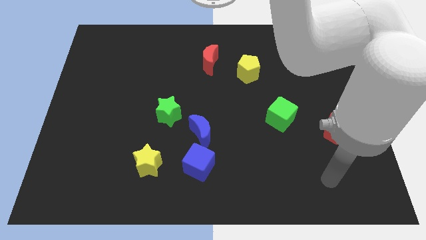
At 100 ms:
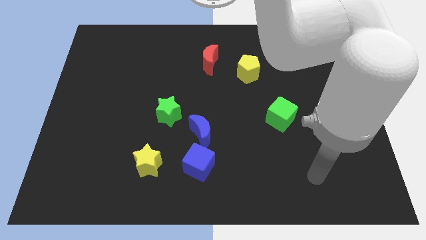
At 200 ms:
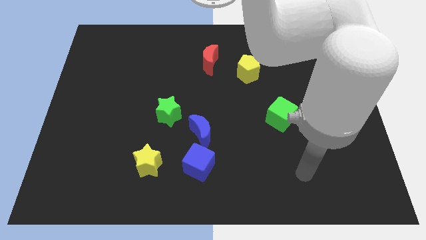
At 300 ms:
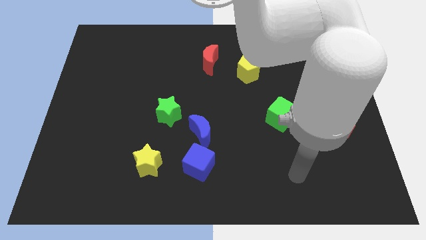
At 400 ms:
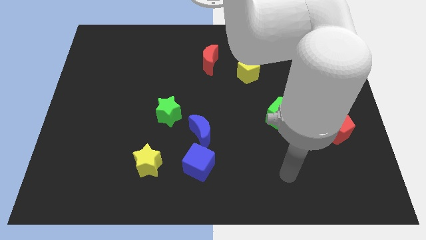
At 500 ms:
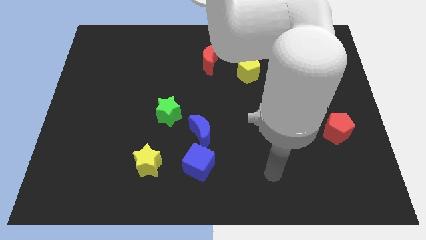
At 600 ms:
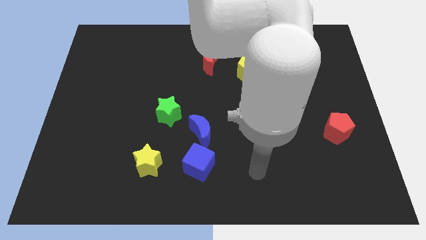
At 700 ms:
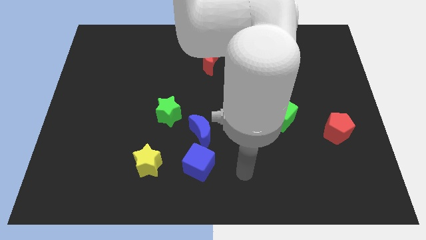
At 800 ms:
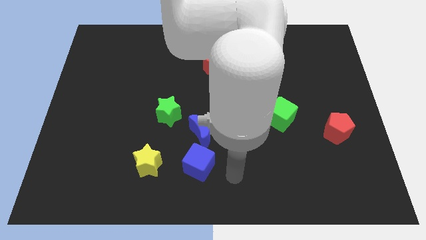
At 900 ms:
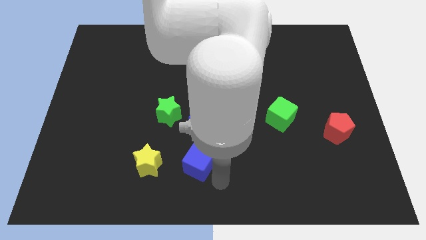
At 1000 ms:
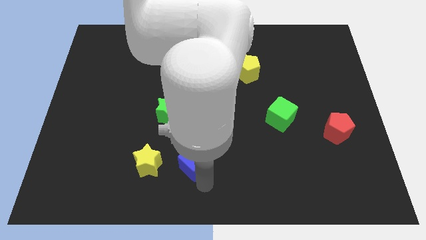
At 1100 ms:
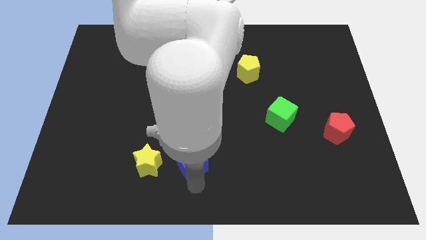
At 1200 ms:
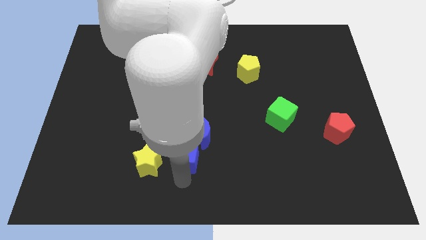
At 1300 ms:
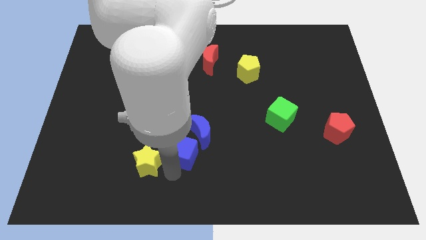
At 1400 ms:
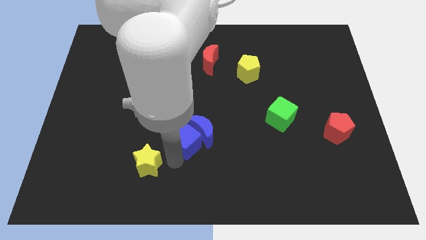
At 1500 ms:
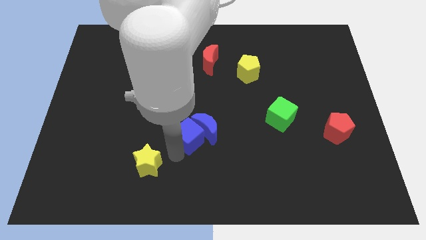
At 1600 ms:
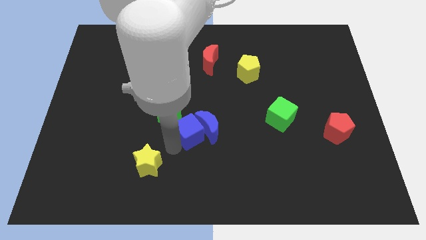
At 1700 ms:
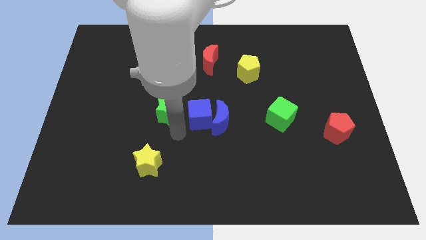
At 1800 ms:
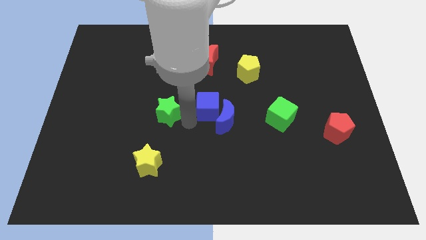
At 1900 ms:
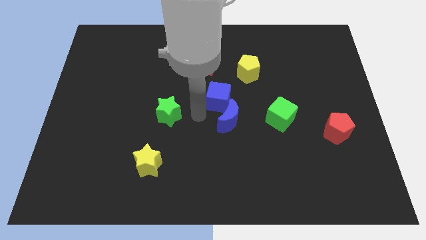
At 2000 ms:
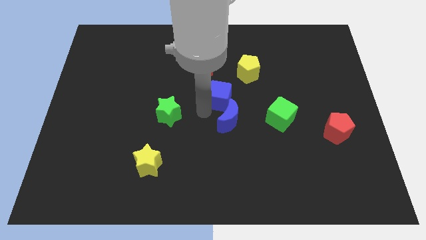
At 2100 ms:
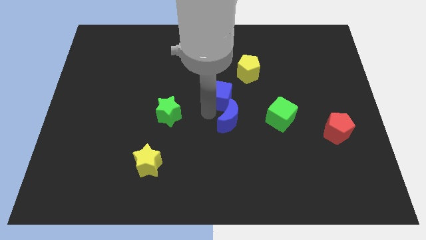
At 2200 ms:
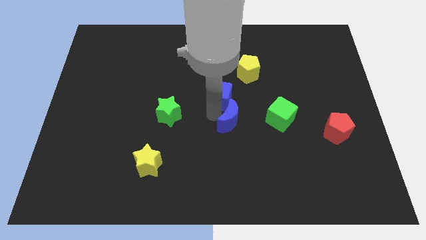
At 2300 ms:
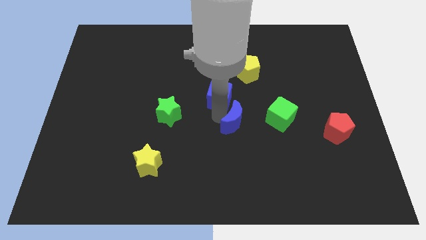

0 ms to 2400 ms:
move the blue moon away from the blue cube and green star

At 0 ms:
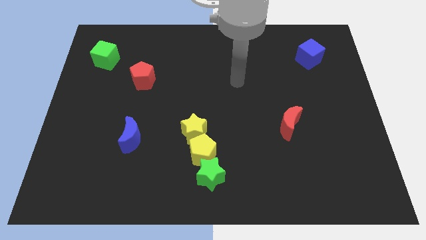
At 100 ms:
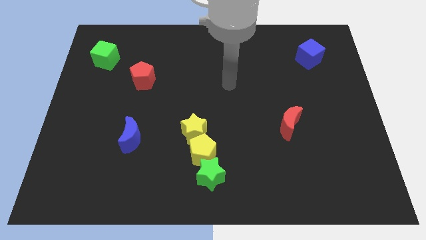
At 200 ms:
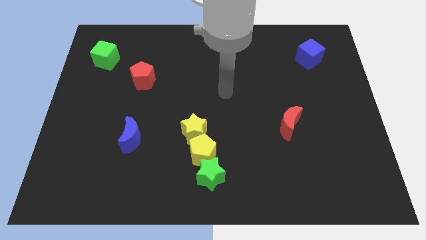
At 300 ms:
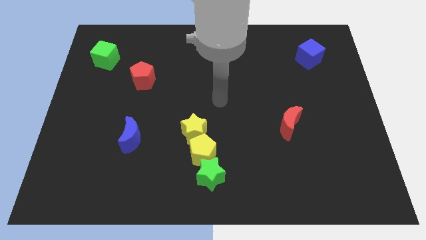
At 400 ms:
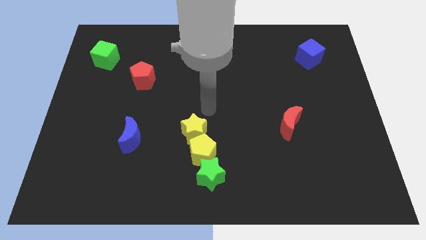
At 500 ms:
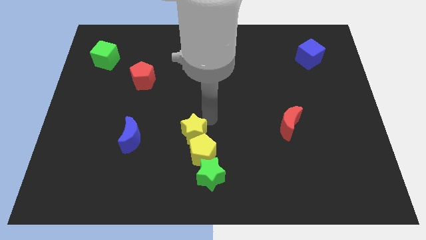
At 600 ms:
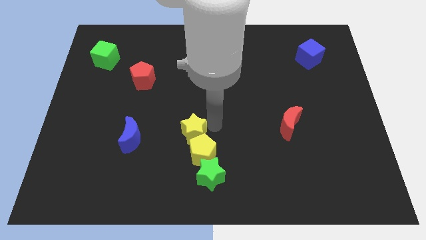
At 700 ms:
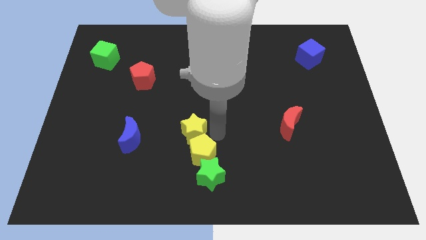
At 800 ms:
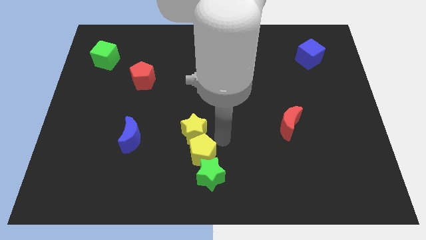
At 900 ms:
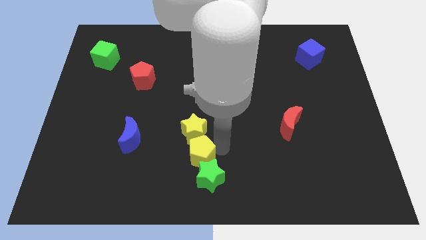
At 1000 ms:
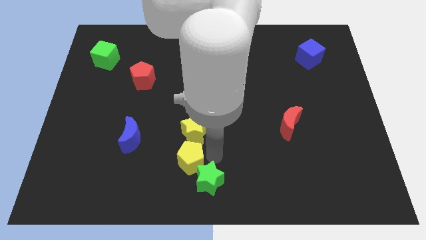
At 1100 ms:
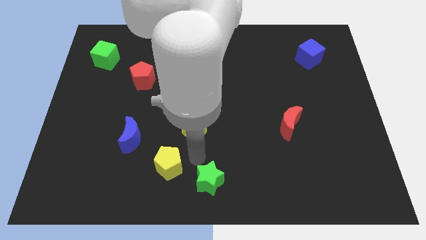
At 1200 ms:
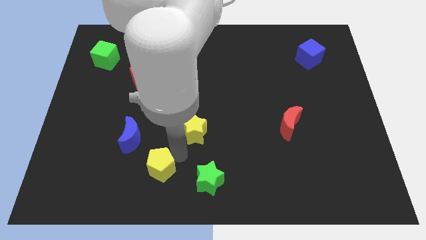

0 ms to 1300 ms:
separate the yellow star from the yellow pentagon

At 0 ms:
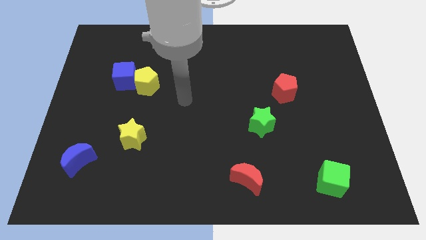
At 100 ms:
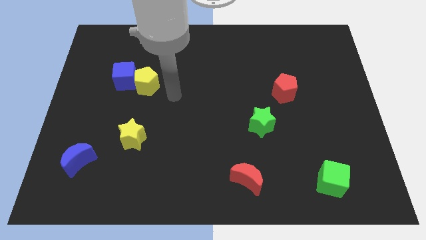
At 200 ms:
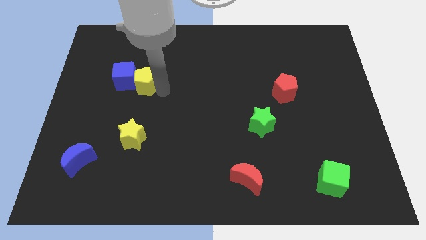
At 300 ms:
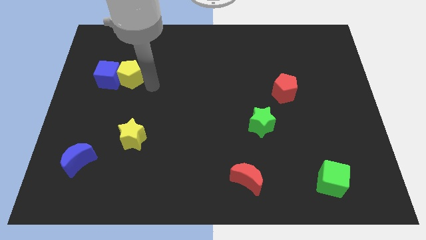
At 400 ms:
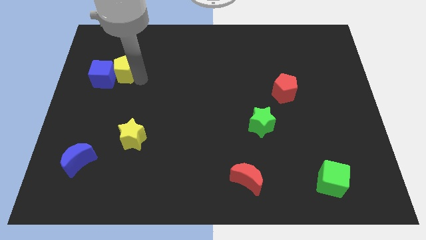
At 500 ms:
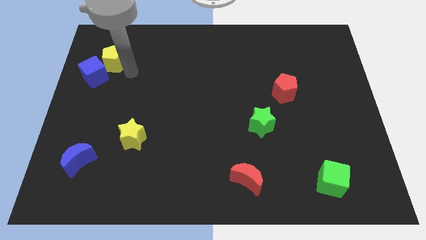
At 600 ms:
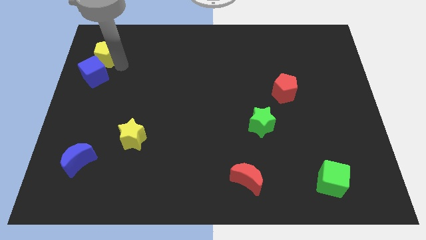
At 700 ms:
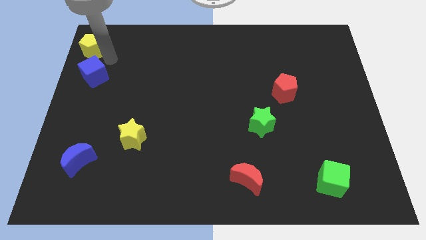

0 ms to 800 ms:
pull the blue cube apart from the yellow pentagon

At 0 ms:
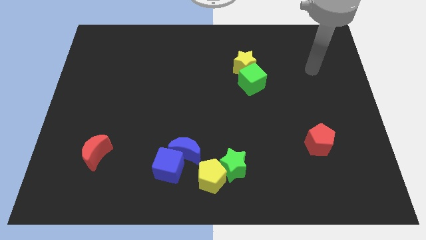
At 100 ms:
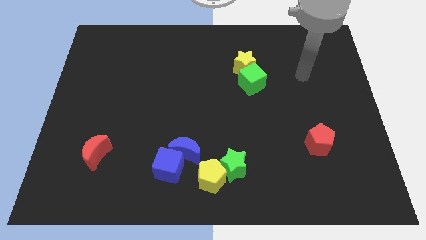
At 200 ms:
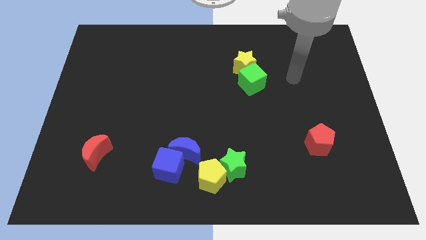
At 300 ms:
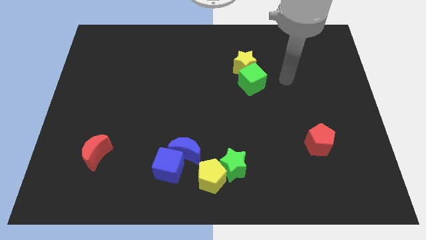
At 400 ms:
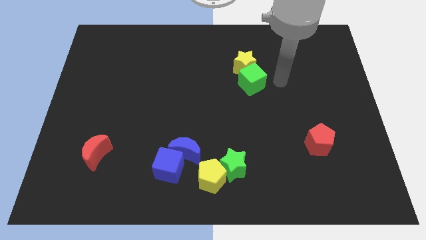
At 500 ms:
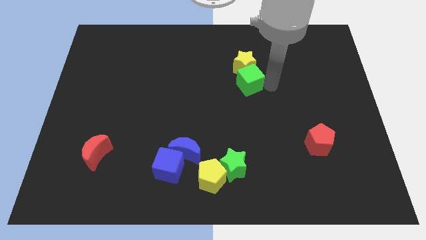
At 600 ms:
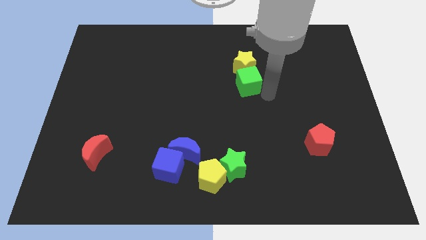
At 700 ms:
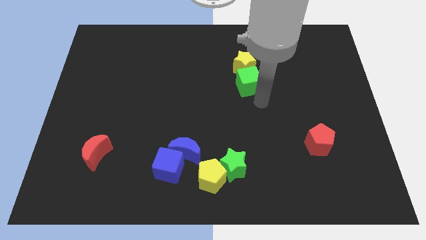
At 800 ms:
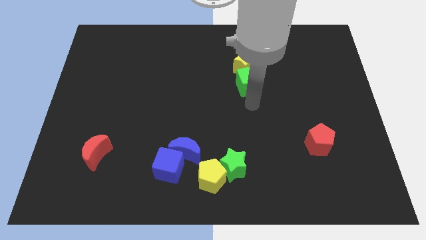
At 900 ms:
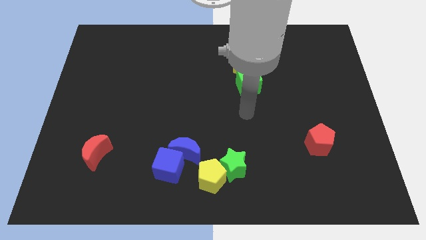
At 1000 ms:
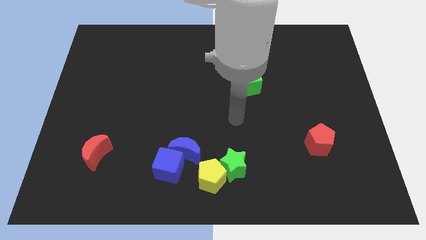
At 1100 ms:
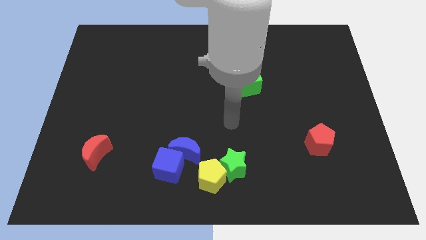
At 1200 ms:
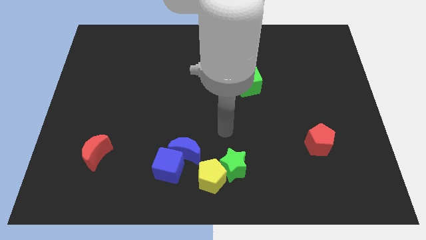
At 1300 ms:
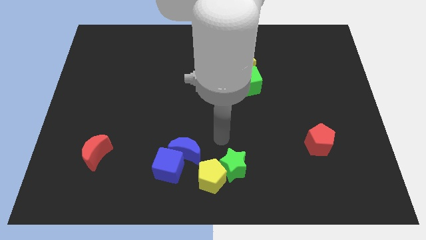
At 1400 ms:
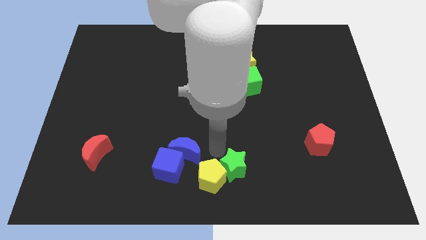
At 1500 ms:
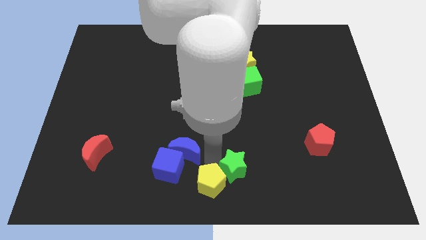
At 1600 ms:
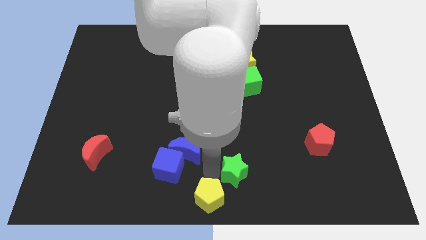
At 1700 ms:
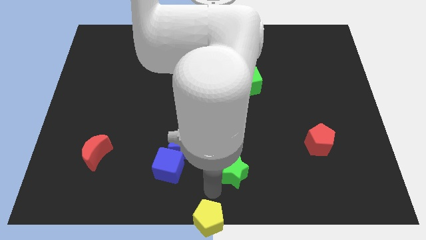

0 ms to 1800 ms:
separate the green star from the yellow pentagon

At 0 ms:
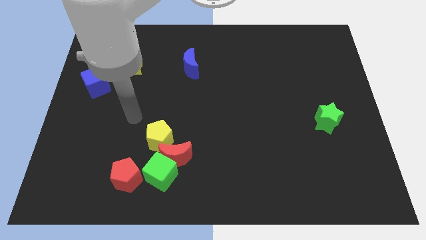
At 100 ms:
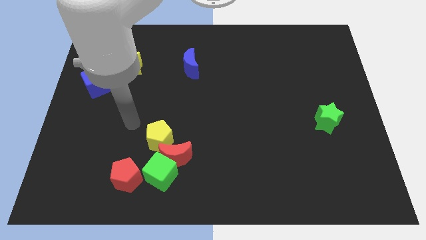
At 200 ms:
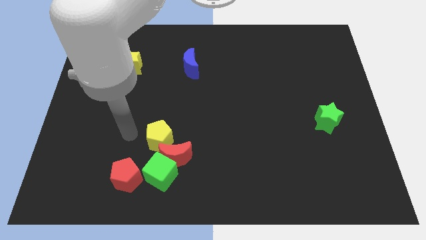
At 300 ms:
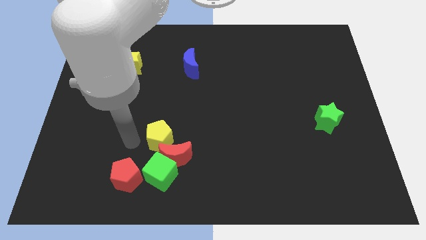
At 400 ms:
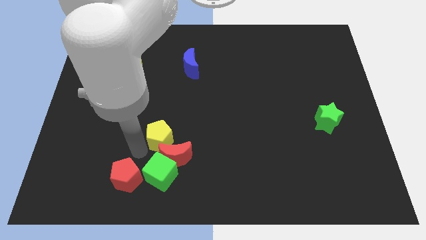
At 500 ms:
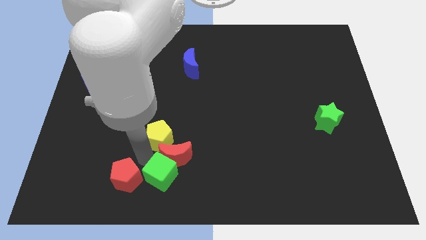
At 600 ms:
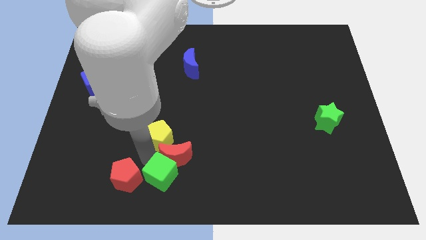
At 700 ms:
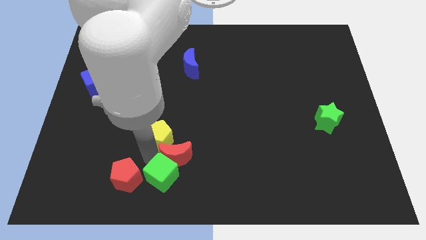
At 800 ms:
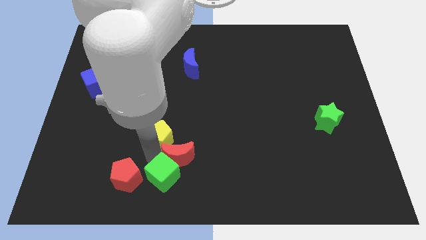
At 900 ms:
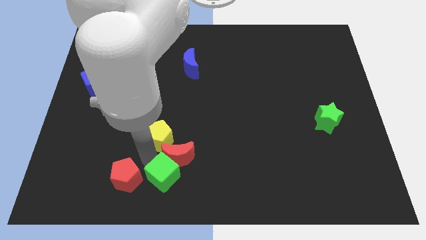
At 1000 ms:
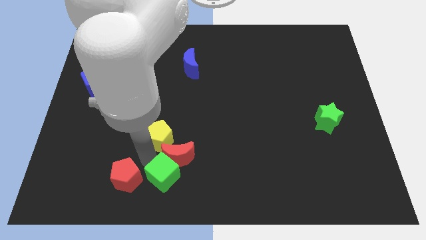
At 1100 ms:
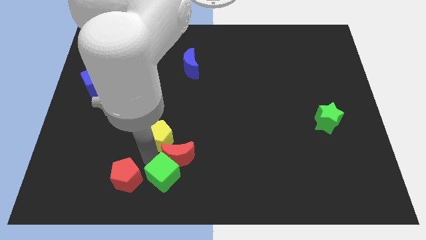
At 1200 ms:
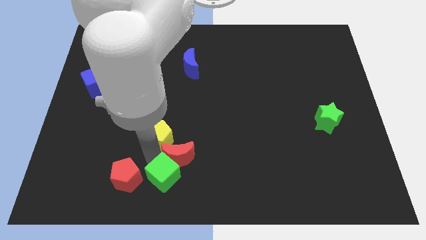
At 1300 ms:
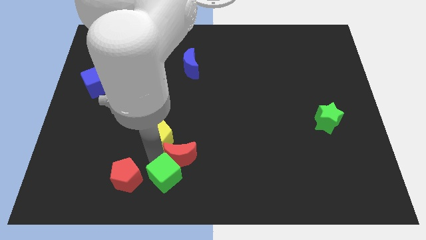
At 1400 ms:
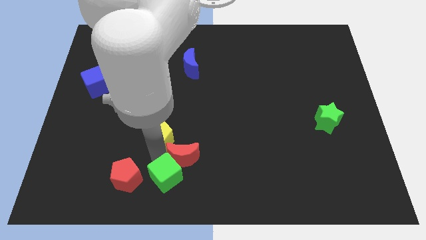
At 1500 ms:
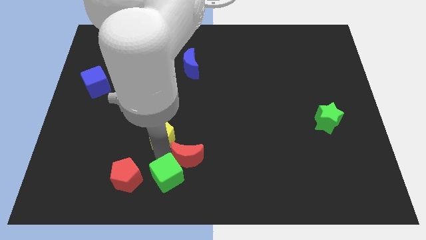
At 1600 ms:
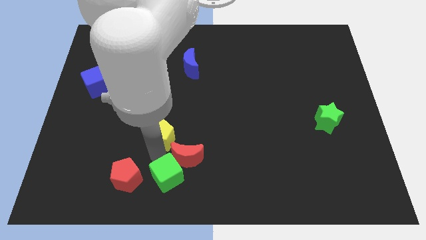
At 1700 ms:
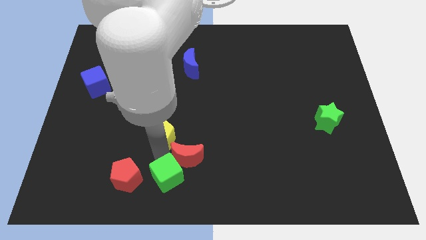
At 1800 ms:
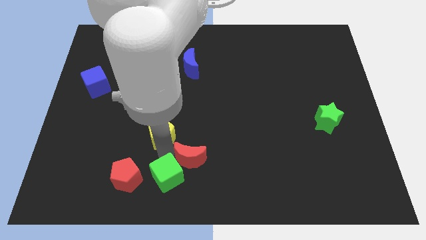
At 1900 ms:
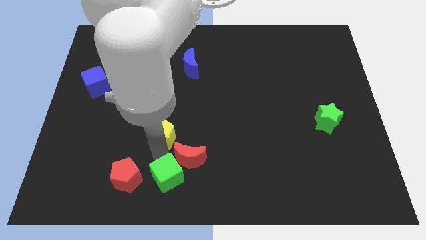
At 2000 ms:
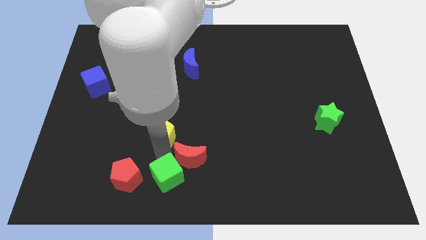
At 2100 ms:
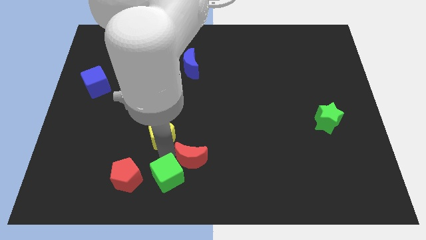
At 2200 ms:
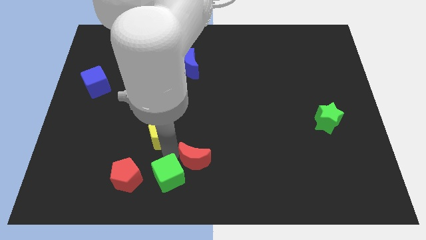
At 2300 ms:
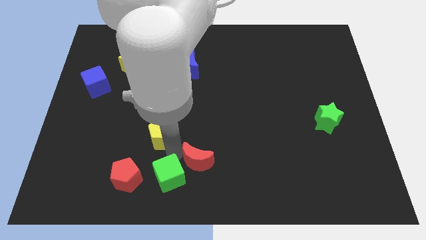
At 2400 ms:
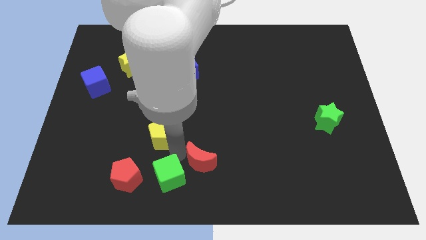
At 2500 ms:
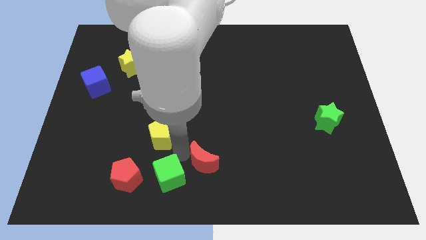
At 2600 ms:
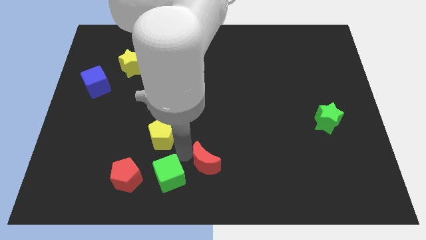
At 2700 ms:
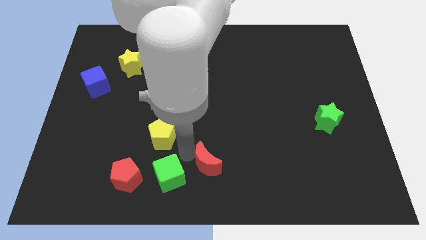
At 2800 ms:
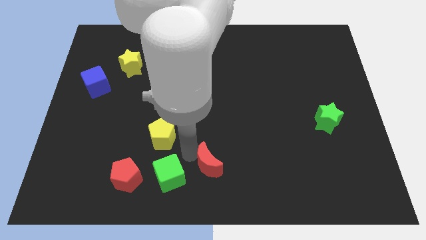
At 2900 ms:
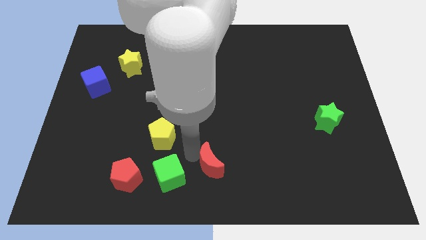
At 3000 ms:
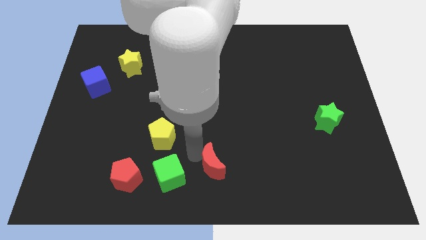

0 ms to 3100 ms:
move the red moon away from the green cube and yellow pentagon
